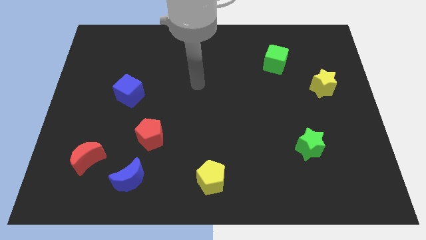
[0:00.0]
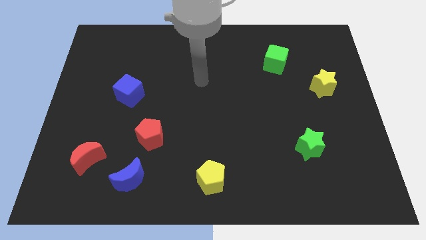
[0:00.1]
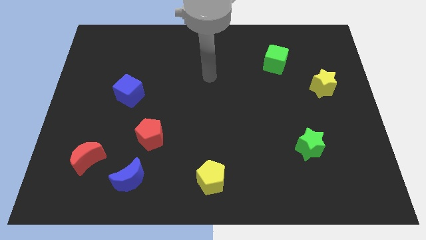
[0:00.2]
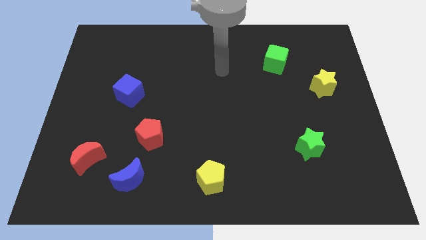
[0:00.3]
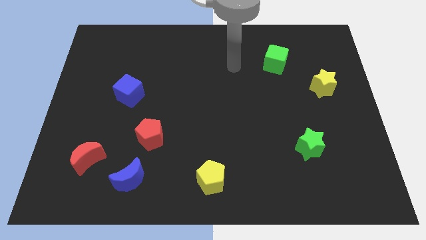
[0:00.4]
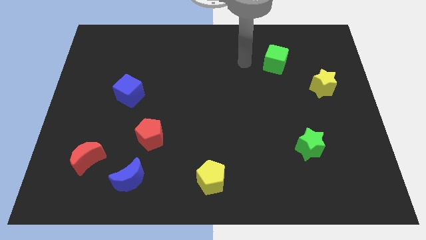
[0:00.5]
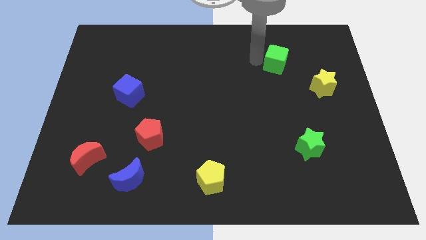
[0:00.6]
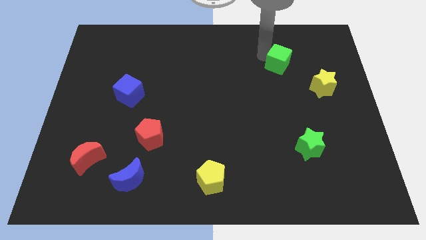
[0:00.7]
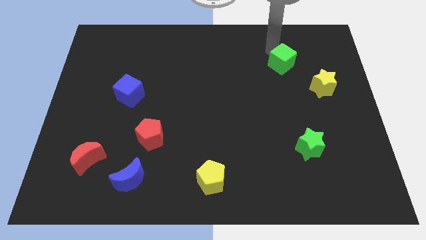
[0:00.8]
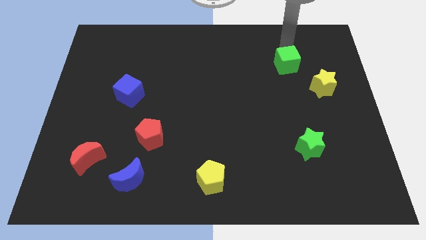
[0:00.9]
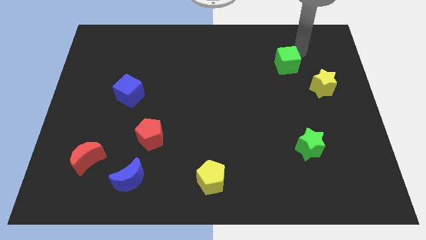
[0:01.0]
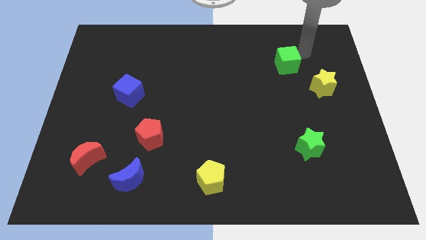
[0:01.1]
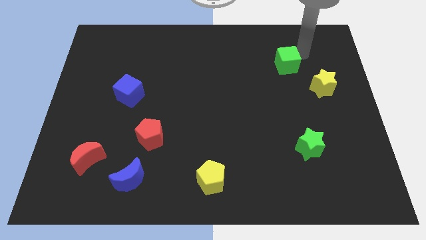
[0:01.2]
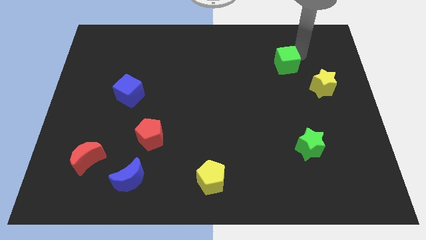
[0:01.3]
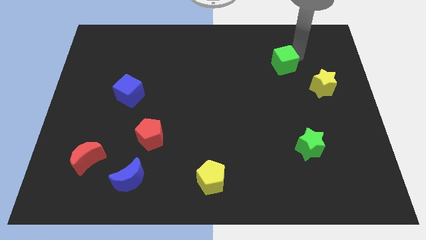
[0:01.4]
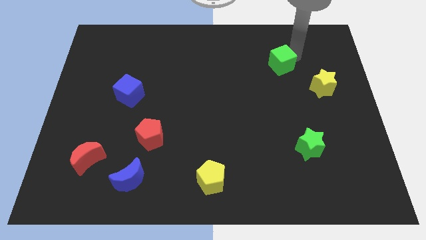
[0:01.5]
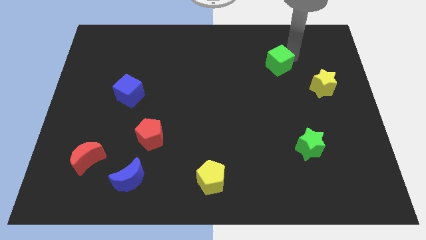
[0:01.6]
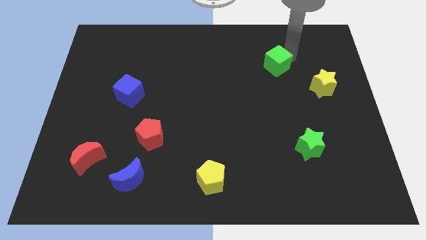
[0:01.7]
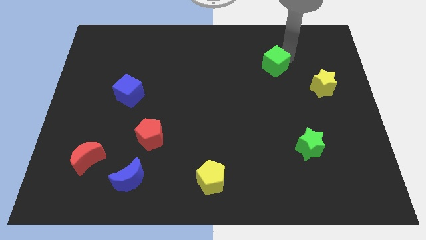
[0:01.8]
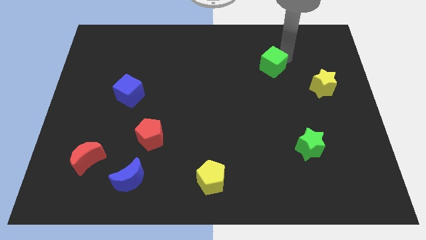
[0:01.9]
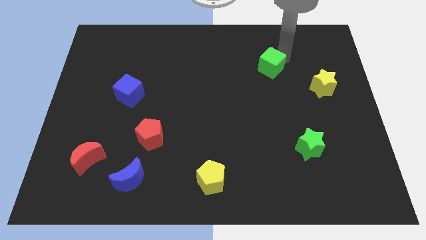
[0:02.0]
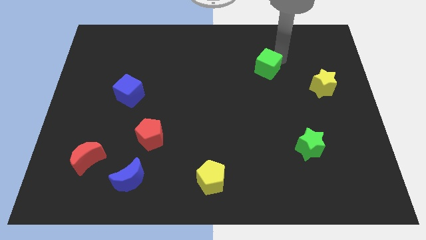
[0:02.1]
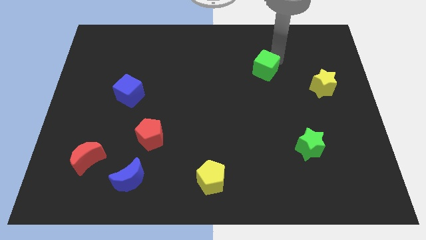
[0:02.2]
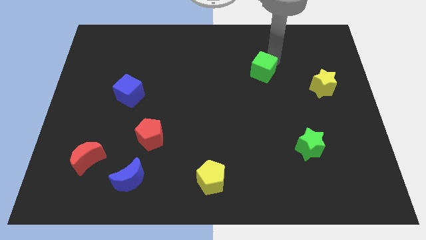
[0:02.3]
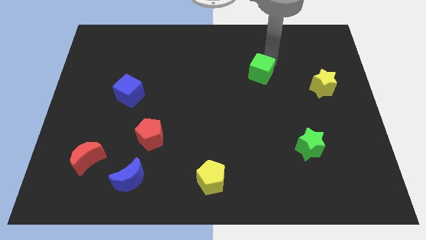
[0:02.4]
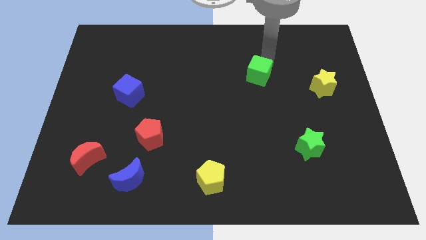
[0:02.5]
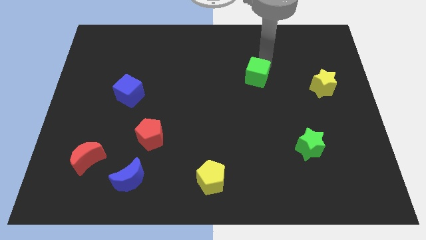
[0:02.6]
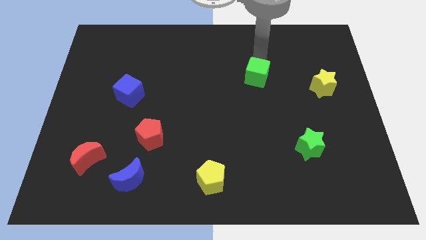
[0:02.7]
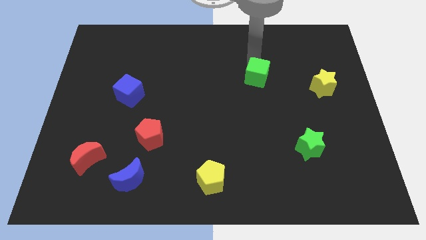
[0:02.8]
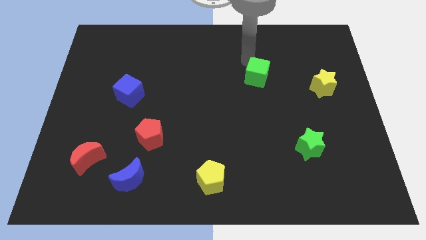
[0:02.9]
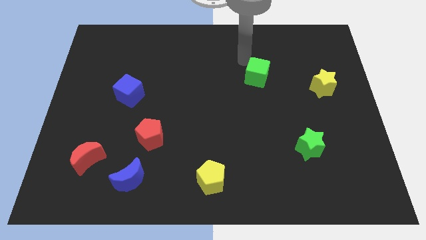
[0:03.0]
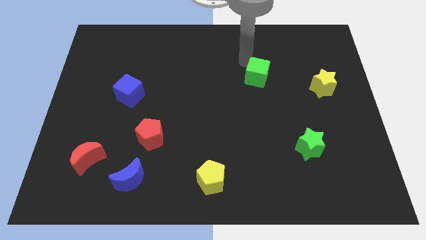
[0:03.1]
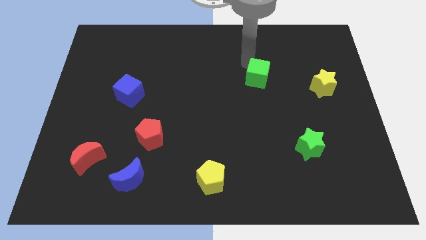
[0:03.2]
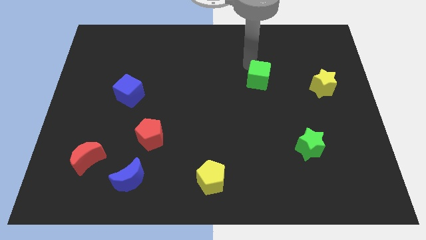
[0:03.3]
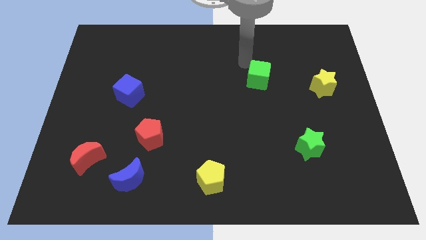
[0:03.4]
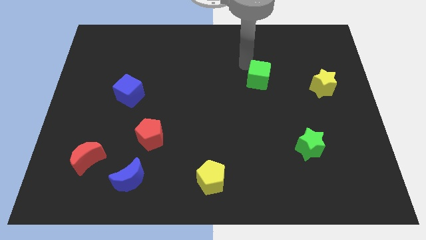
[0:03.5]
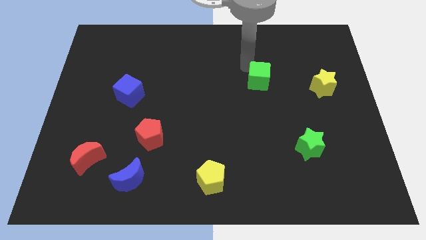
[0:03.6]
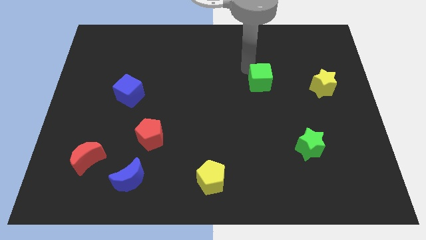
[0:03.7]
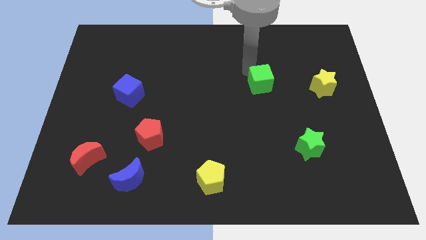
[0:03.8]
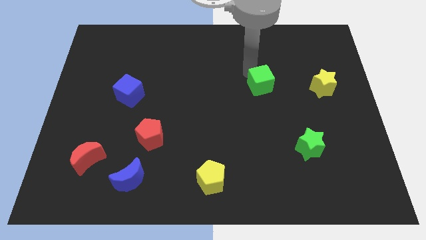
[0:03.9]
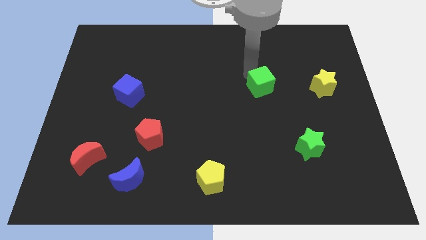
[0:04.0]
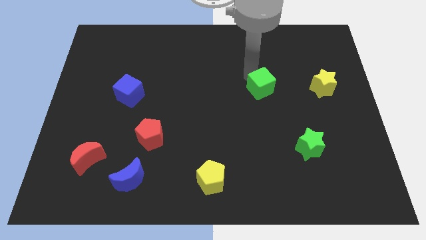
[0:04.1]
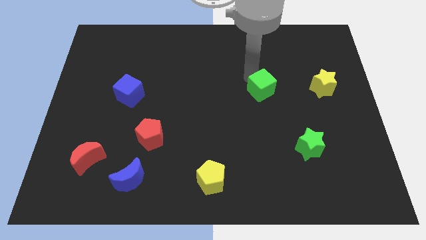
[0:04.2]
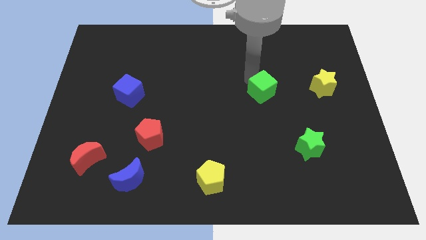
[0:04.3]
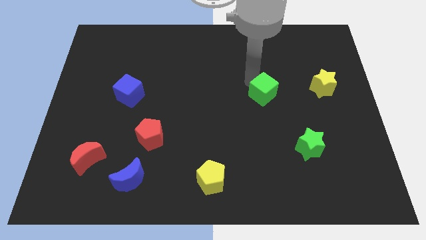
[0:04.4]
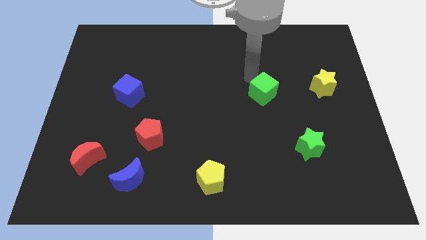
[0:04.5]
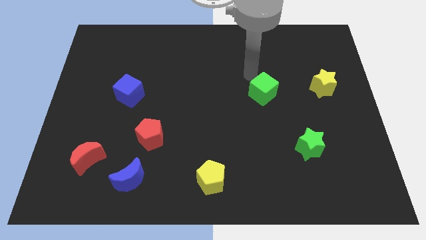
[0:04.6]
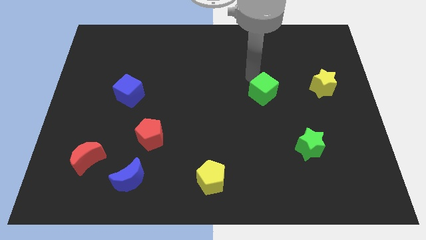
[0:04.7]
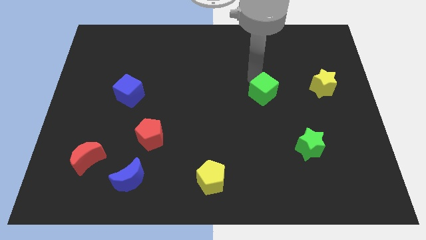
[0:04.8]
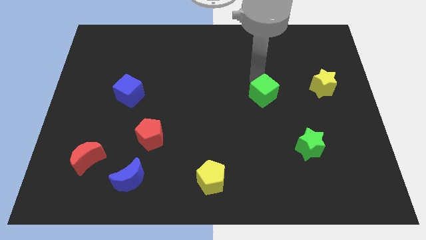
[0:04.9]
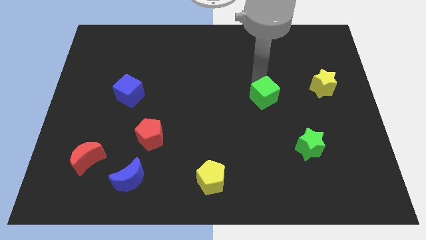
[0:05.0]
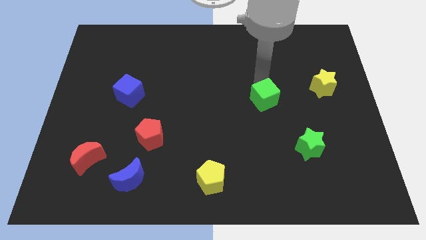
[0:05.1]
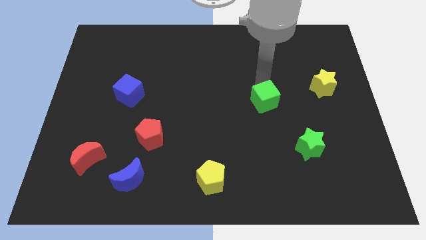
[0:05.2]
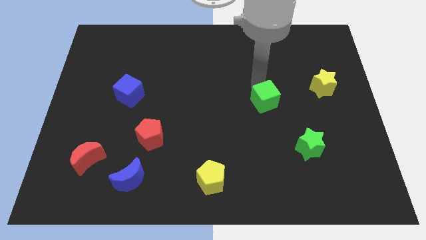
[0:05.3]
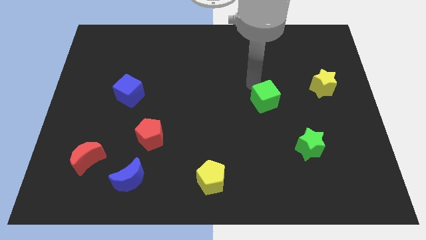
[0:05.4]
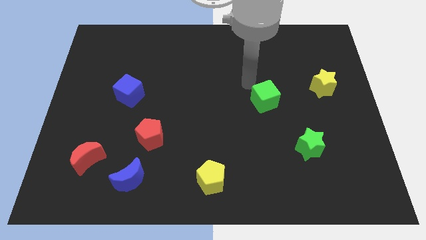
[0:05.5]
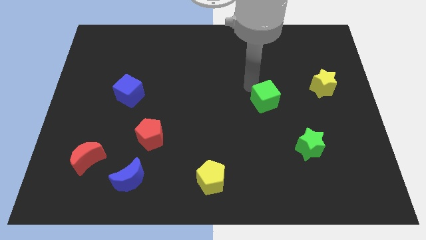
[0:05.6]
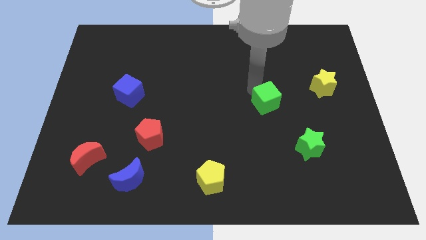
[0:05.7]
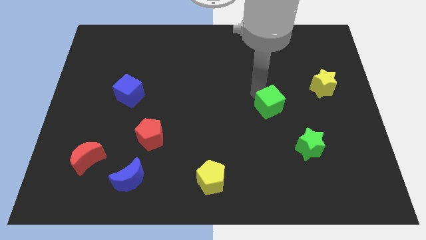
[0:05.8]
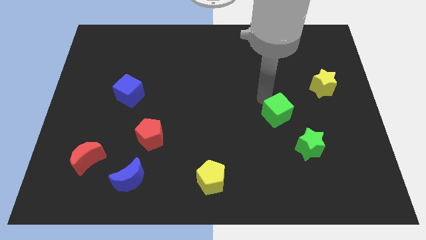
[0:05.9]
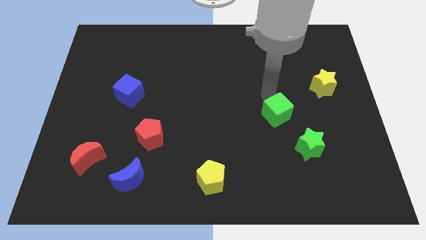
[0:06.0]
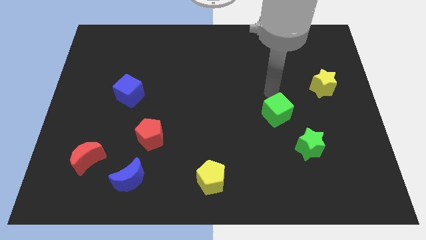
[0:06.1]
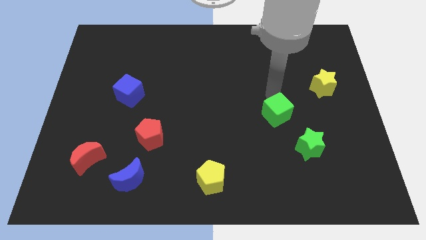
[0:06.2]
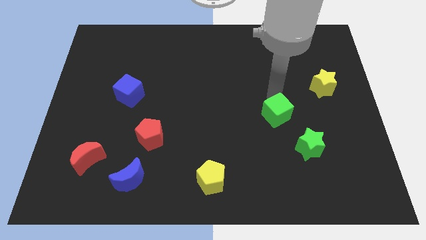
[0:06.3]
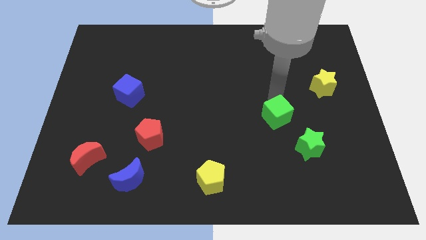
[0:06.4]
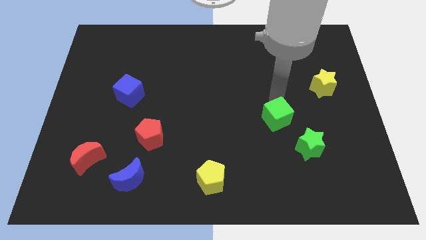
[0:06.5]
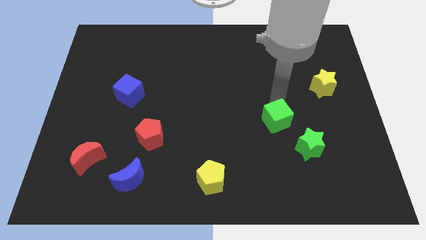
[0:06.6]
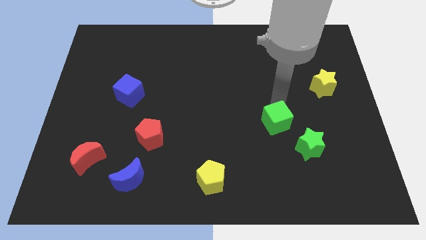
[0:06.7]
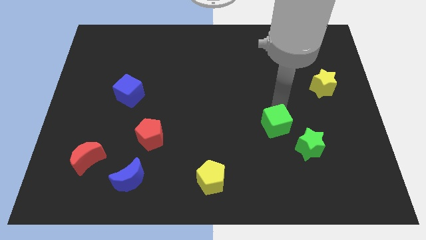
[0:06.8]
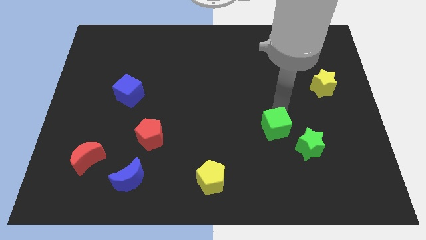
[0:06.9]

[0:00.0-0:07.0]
push the green cube down

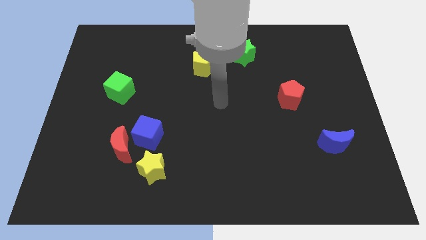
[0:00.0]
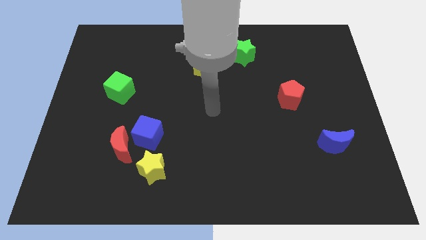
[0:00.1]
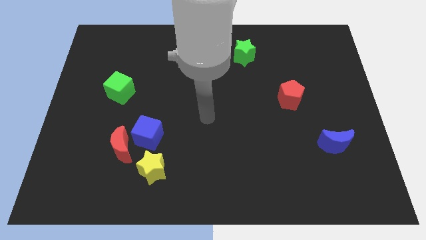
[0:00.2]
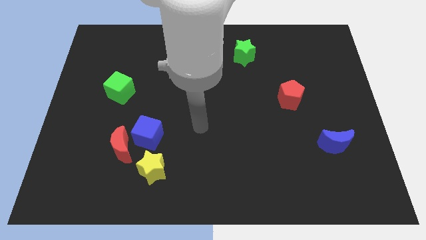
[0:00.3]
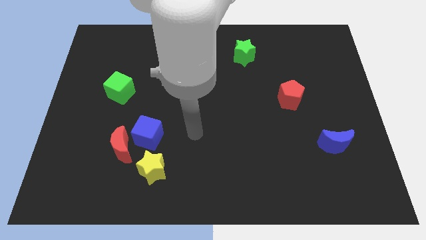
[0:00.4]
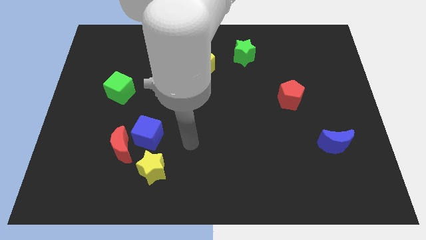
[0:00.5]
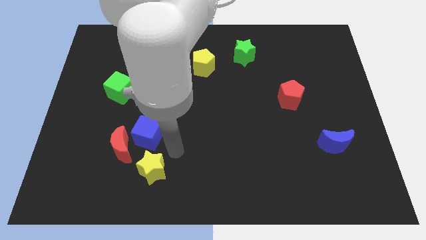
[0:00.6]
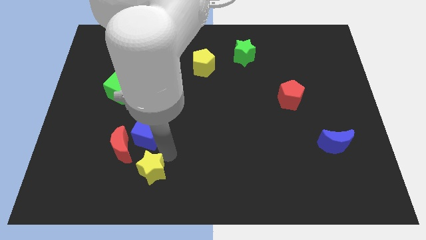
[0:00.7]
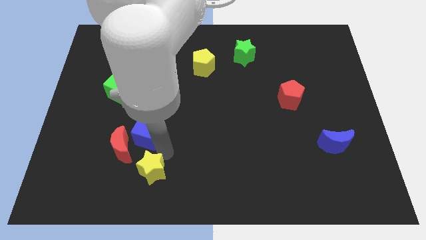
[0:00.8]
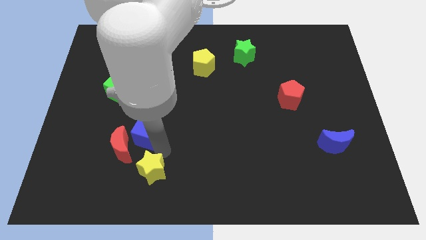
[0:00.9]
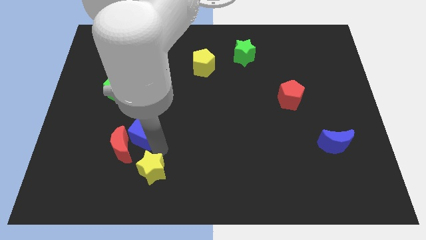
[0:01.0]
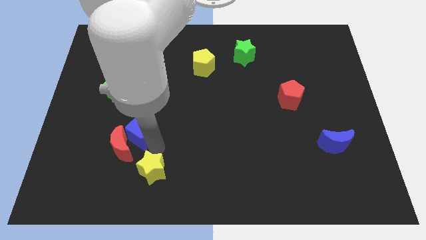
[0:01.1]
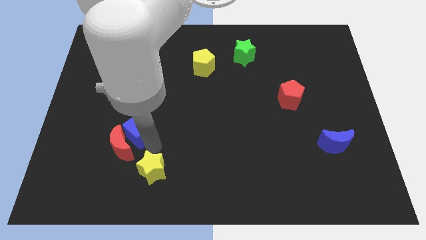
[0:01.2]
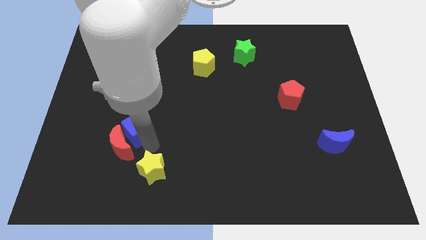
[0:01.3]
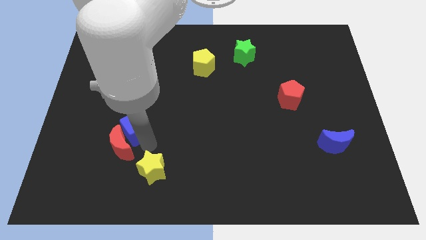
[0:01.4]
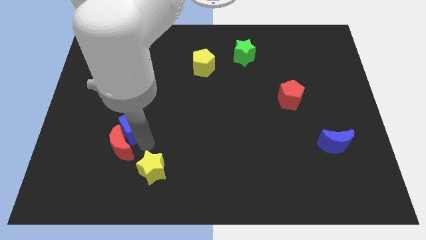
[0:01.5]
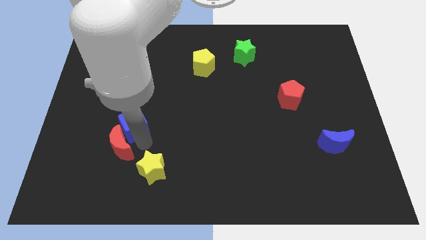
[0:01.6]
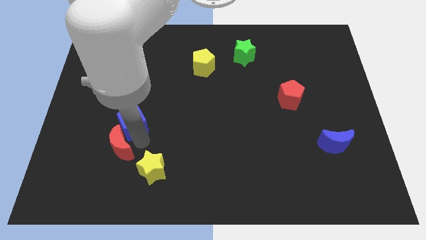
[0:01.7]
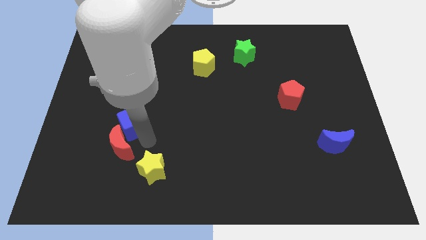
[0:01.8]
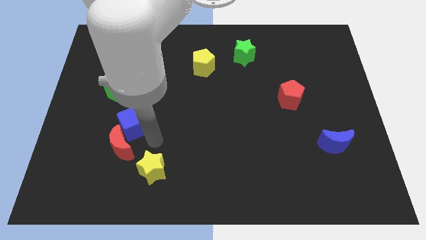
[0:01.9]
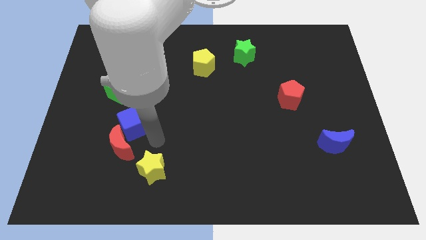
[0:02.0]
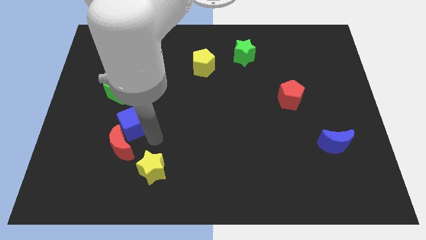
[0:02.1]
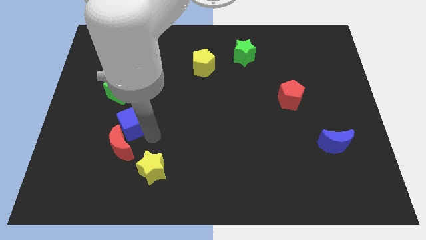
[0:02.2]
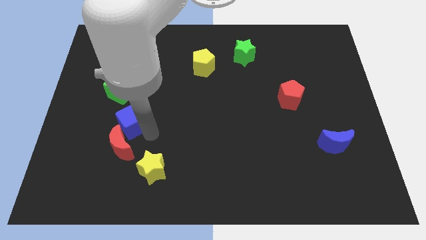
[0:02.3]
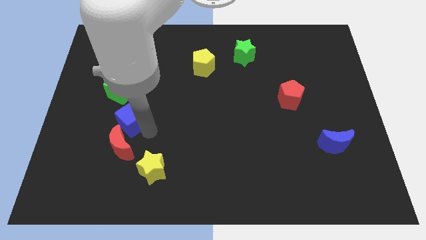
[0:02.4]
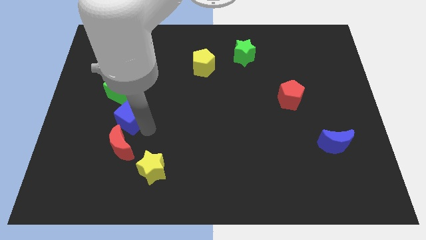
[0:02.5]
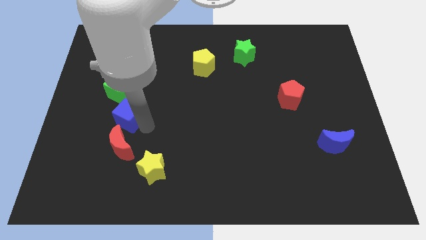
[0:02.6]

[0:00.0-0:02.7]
move the blue cube up and left diagonally a little bit
